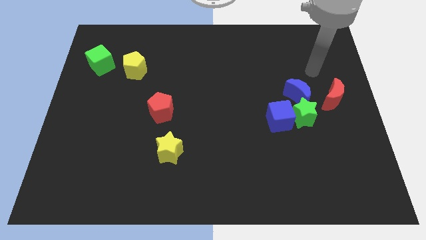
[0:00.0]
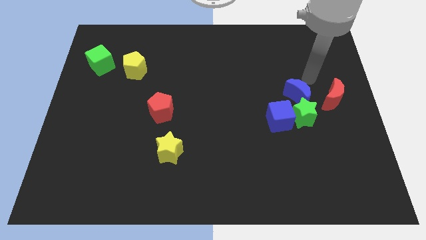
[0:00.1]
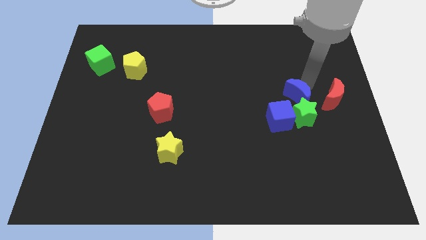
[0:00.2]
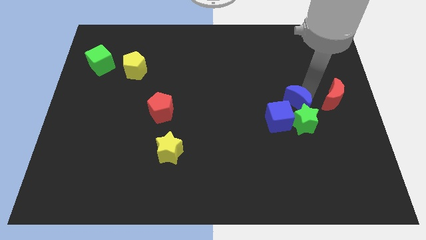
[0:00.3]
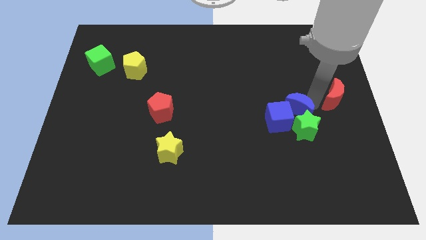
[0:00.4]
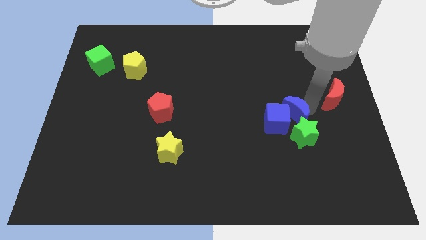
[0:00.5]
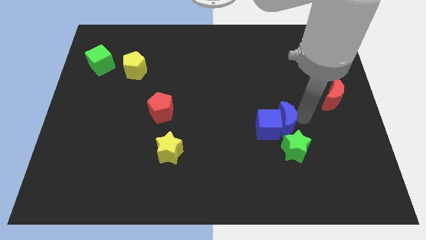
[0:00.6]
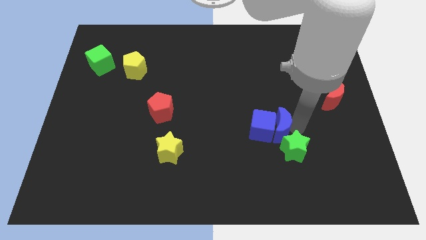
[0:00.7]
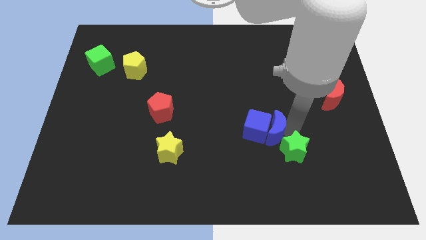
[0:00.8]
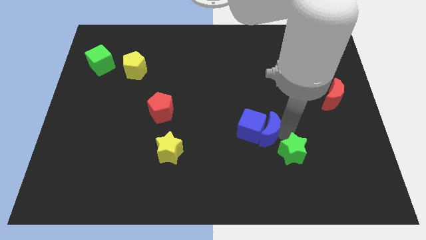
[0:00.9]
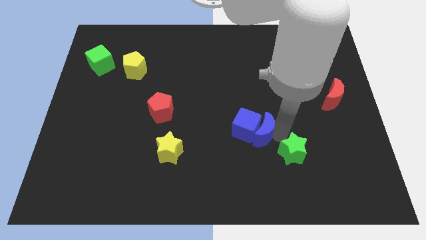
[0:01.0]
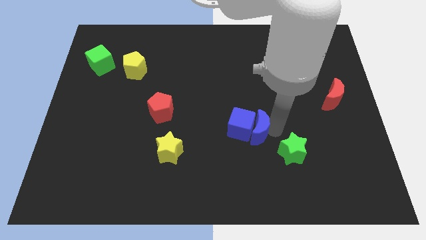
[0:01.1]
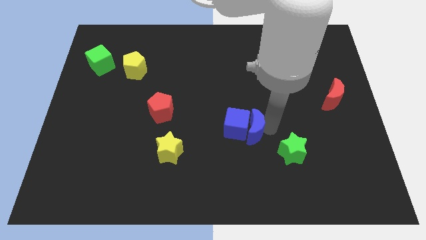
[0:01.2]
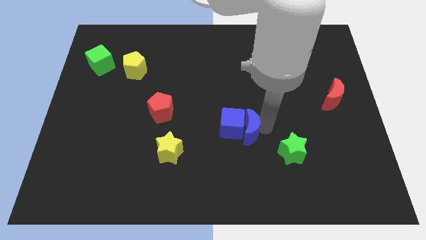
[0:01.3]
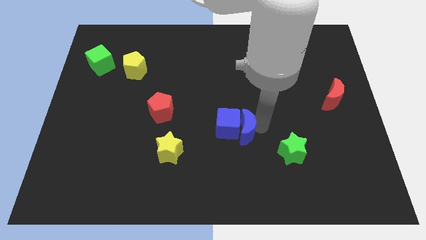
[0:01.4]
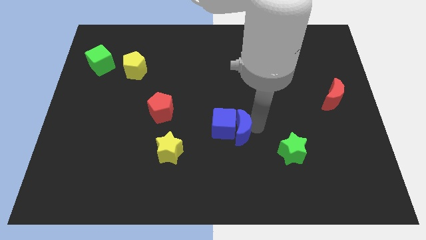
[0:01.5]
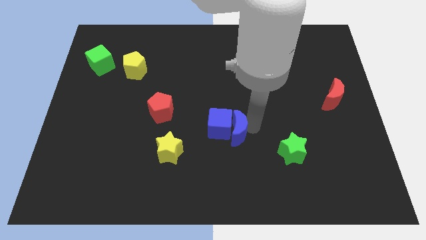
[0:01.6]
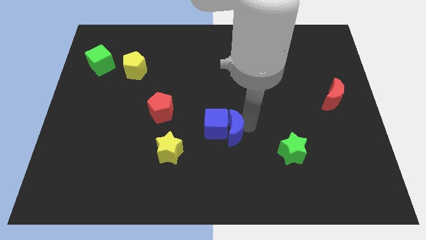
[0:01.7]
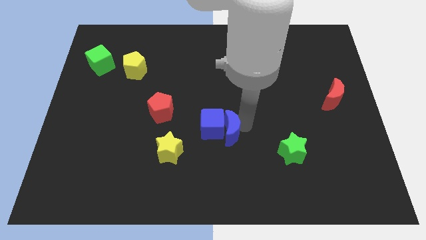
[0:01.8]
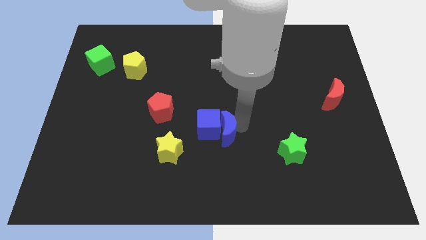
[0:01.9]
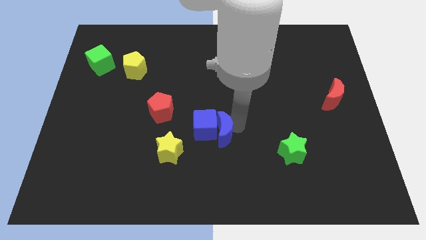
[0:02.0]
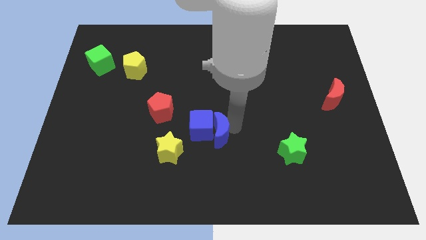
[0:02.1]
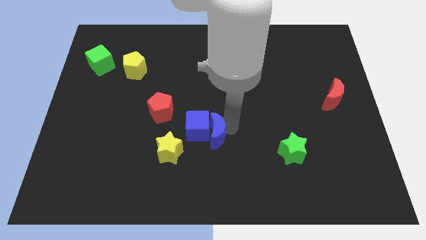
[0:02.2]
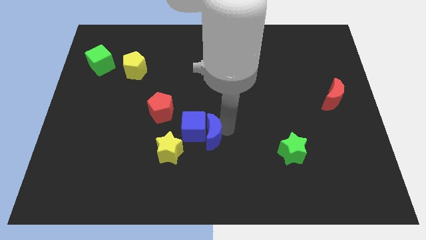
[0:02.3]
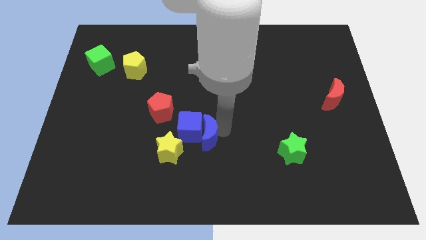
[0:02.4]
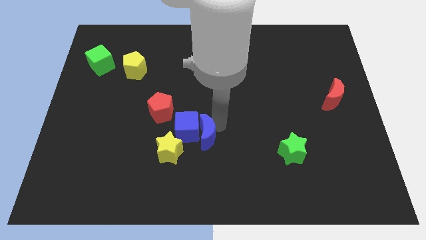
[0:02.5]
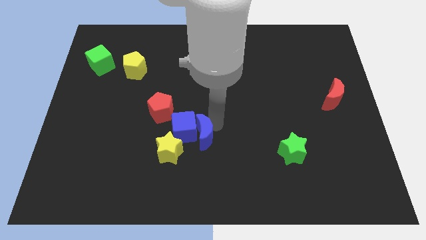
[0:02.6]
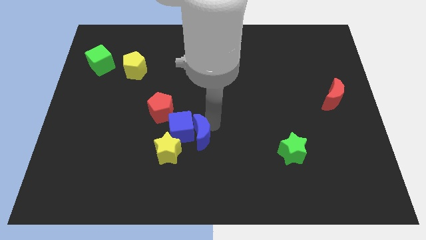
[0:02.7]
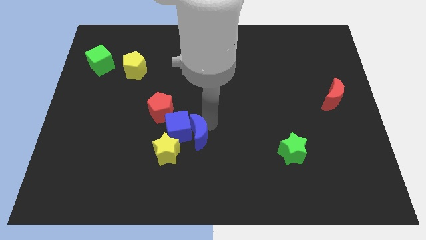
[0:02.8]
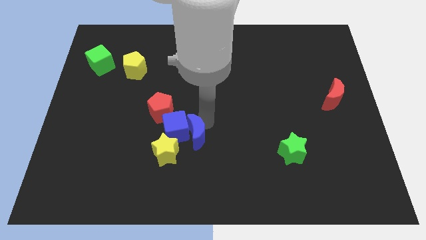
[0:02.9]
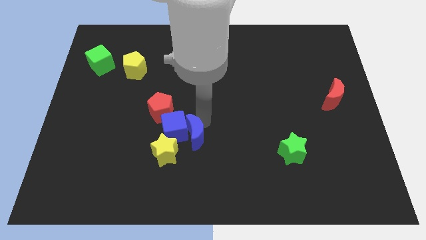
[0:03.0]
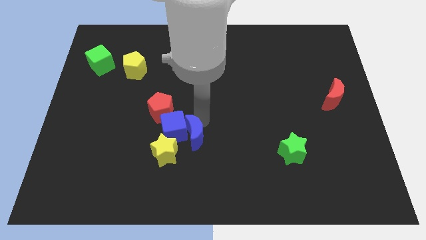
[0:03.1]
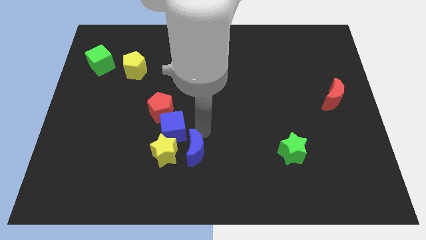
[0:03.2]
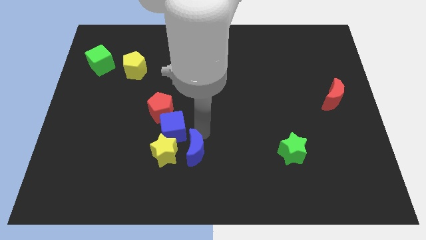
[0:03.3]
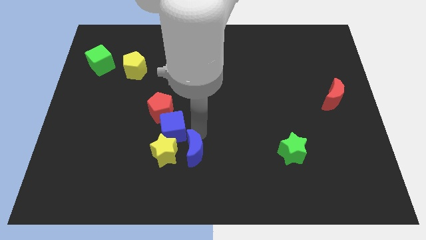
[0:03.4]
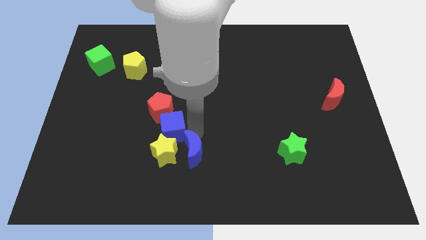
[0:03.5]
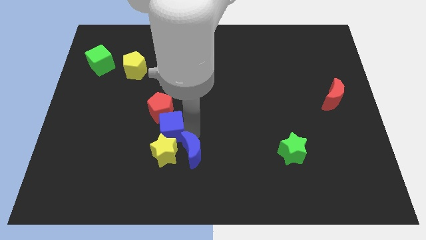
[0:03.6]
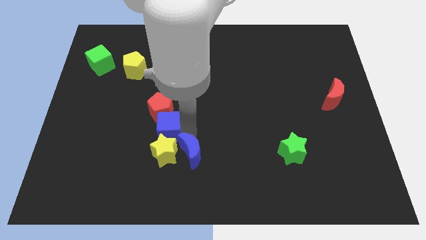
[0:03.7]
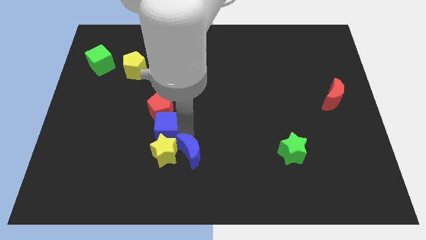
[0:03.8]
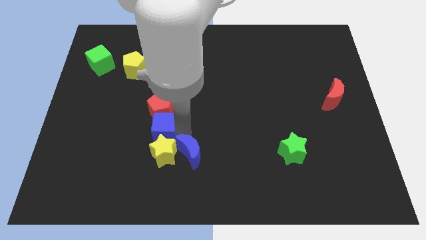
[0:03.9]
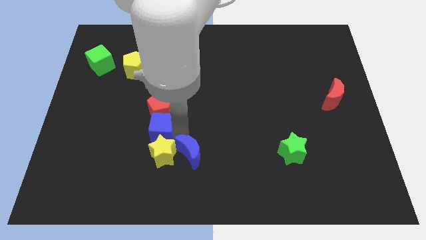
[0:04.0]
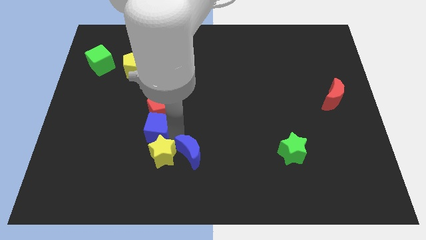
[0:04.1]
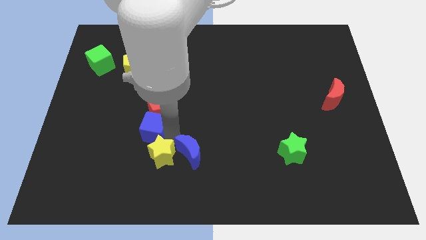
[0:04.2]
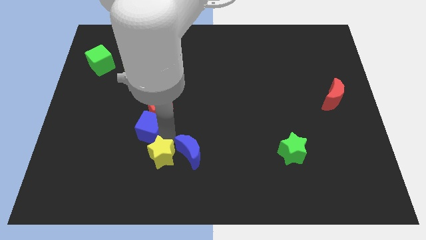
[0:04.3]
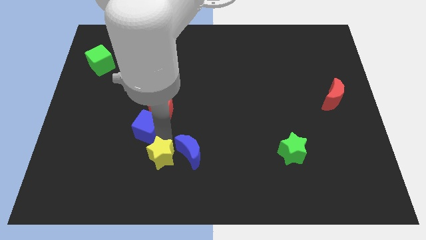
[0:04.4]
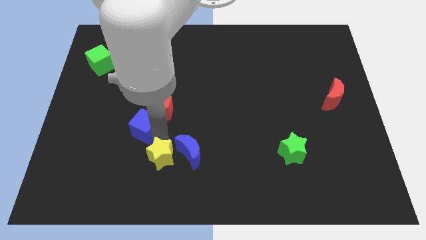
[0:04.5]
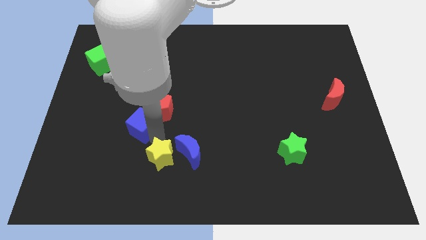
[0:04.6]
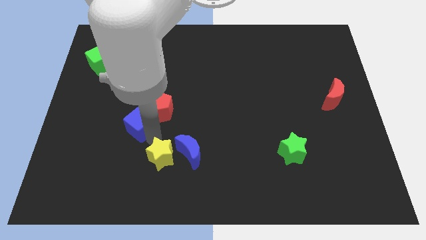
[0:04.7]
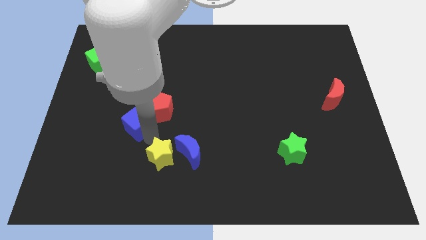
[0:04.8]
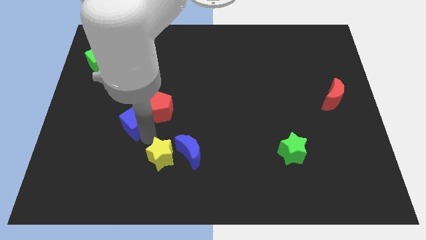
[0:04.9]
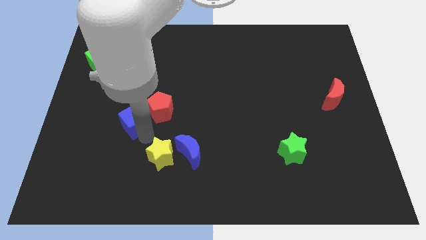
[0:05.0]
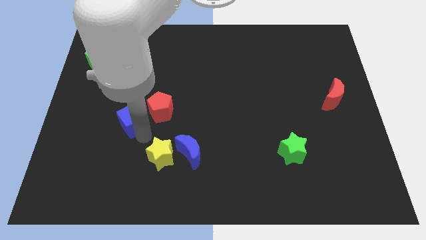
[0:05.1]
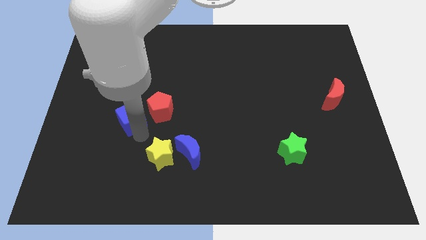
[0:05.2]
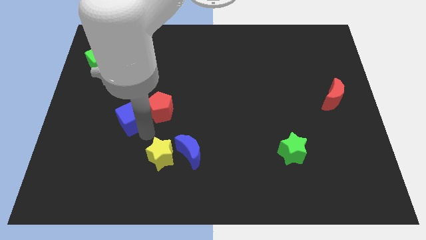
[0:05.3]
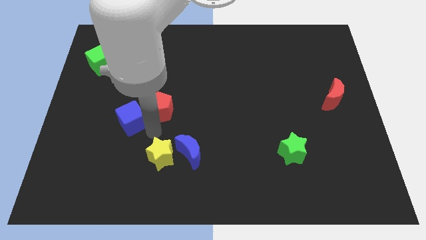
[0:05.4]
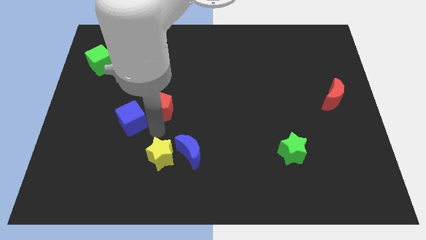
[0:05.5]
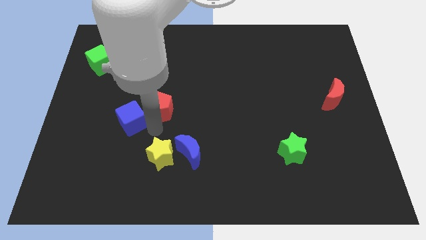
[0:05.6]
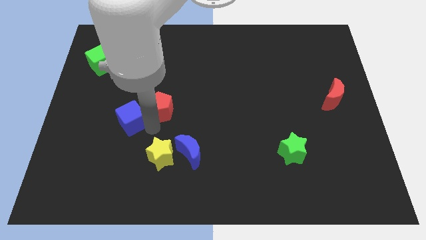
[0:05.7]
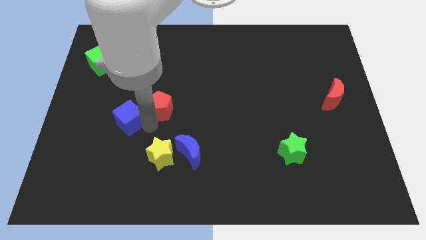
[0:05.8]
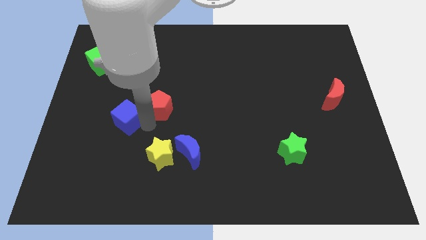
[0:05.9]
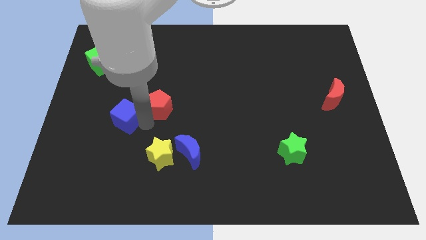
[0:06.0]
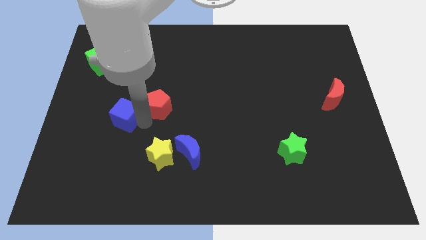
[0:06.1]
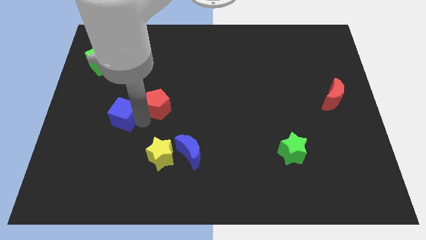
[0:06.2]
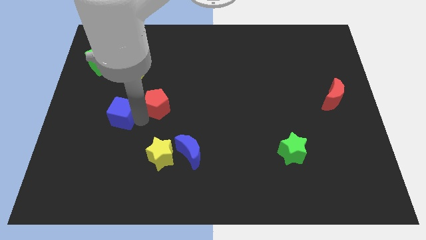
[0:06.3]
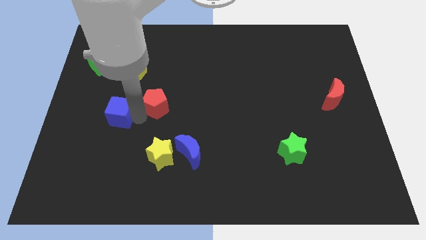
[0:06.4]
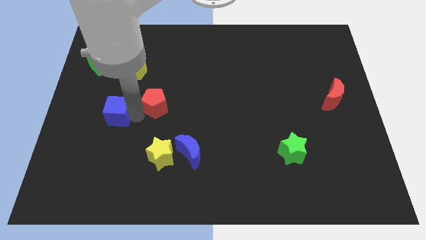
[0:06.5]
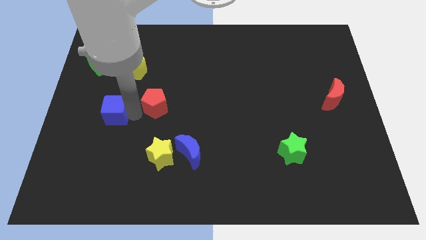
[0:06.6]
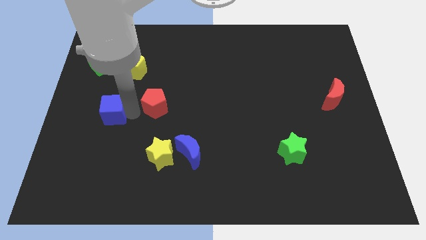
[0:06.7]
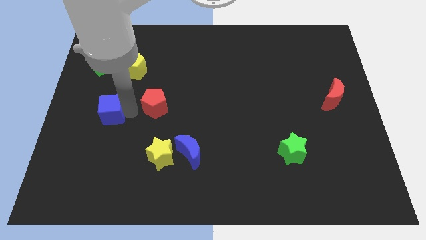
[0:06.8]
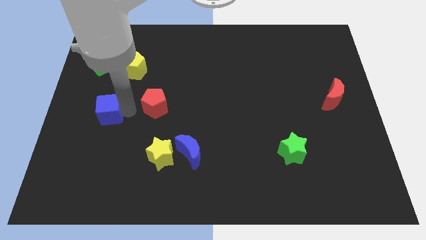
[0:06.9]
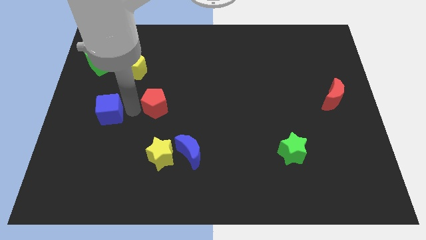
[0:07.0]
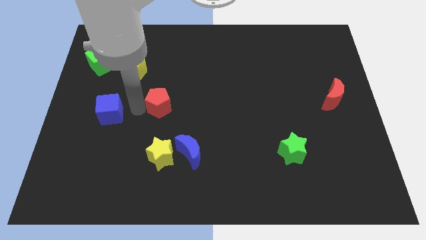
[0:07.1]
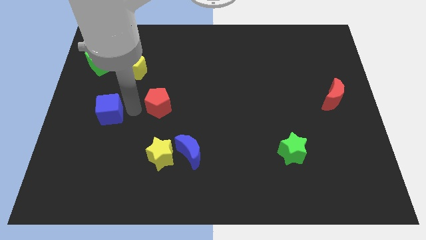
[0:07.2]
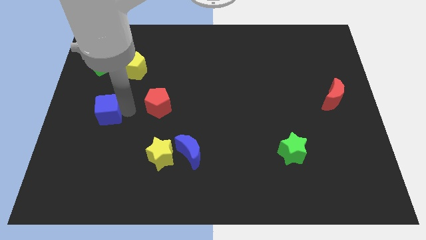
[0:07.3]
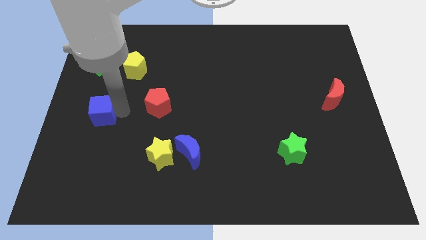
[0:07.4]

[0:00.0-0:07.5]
put the blue cube to the left side
